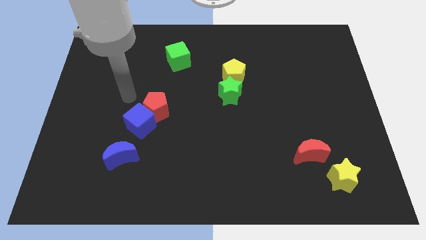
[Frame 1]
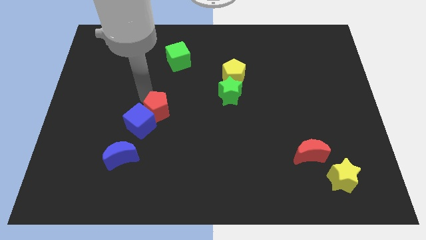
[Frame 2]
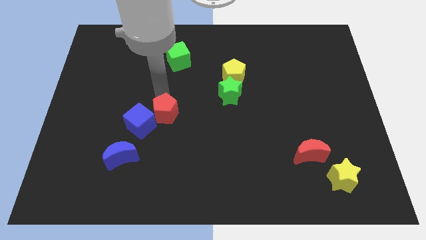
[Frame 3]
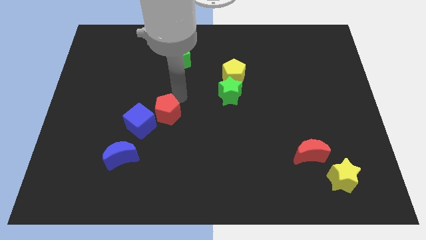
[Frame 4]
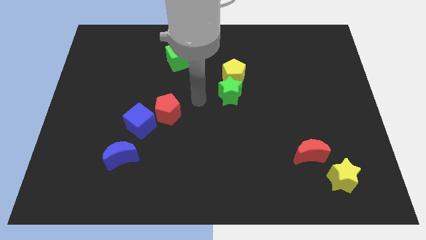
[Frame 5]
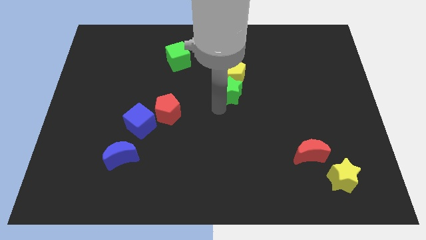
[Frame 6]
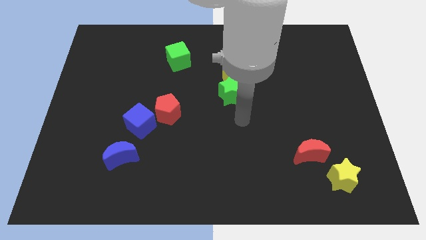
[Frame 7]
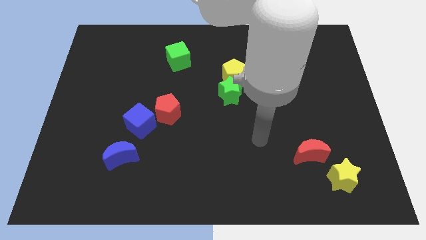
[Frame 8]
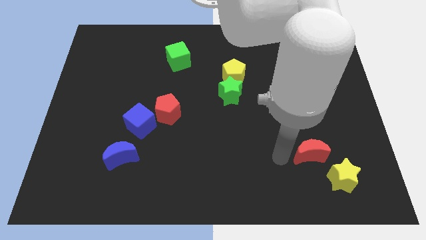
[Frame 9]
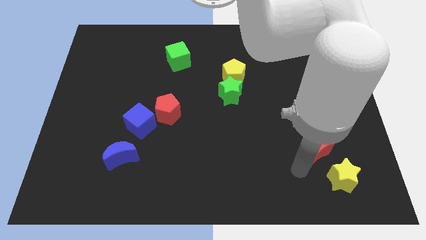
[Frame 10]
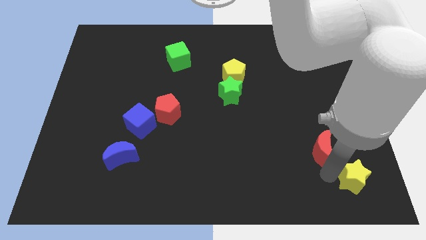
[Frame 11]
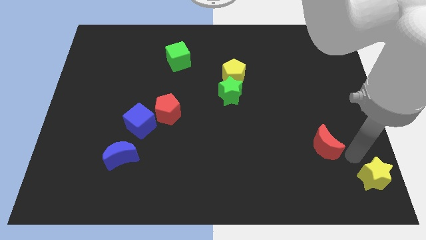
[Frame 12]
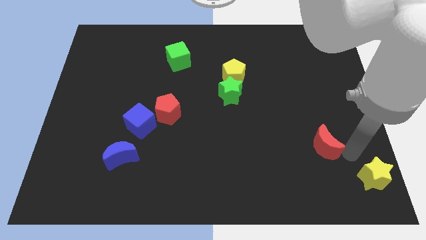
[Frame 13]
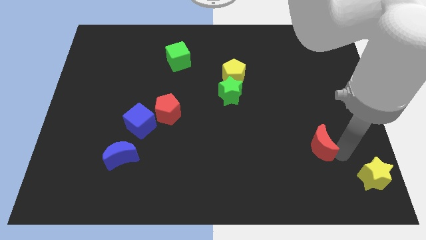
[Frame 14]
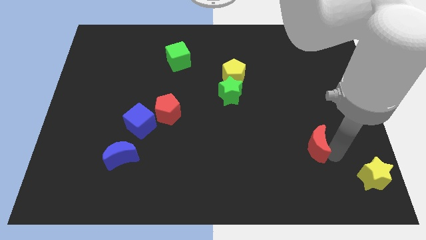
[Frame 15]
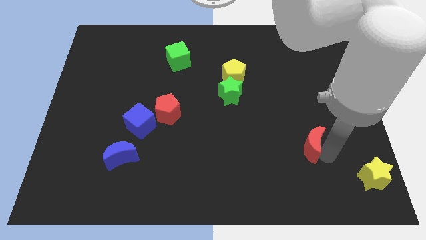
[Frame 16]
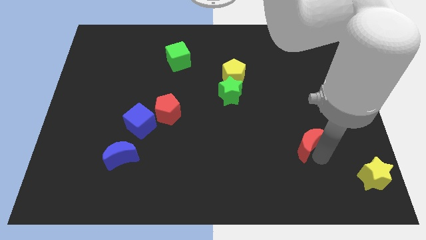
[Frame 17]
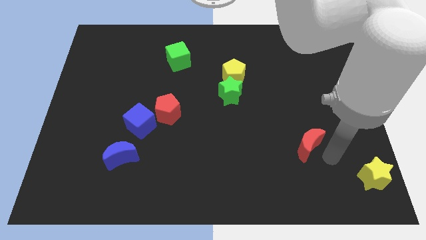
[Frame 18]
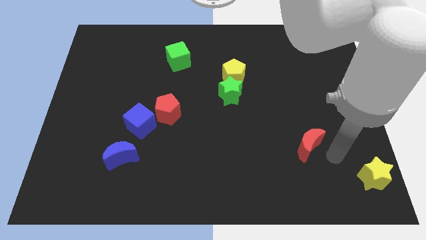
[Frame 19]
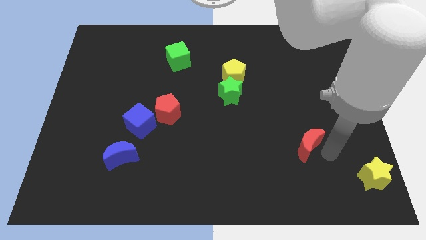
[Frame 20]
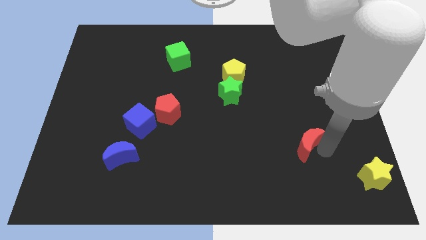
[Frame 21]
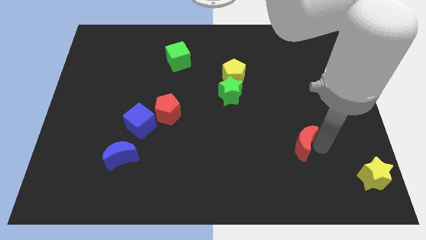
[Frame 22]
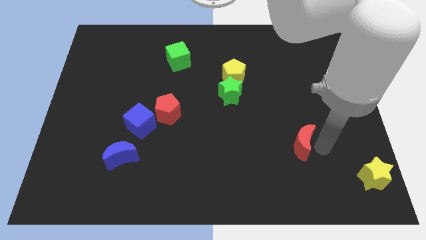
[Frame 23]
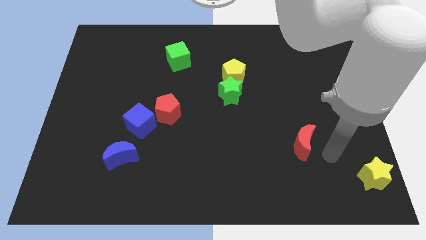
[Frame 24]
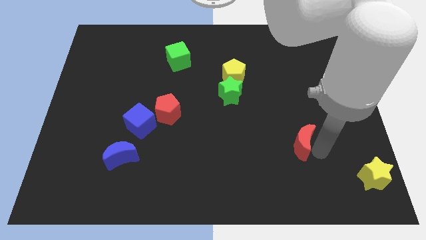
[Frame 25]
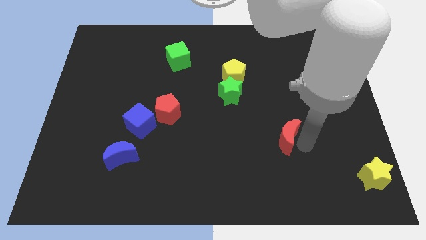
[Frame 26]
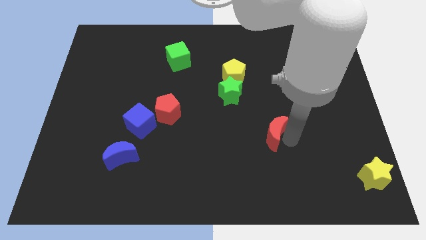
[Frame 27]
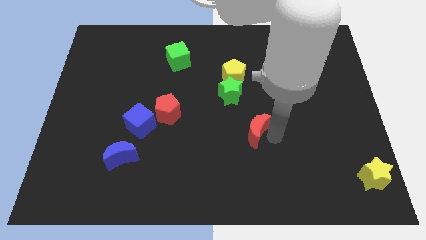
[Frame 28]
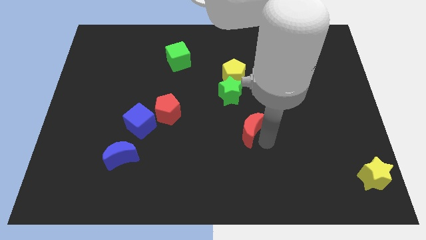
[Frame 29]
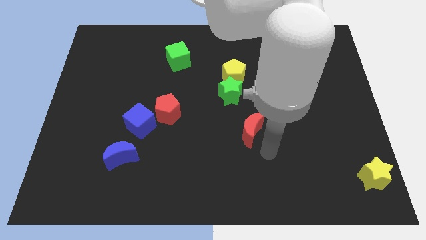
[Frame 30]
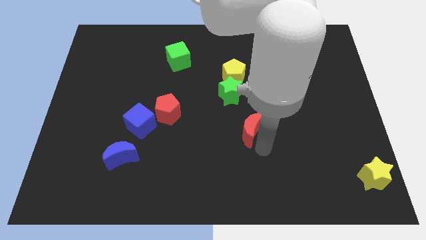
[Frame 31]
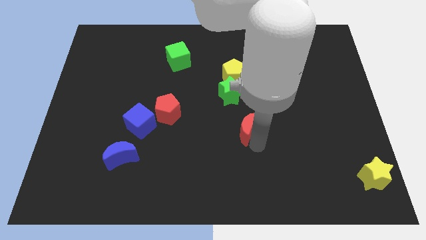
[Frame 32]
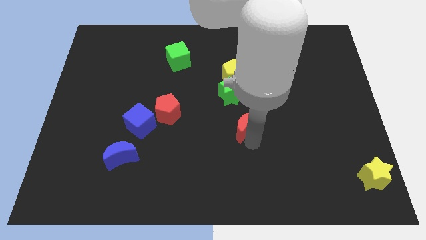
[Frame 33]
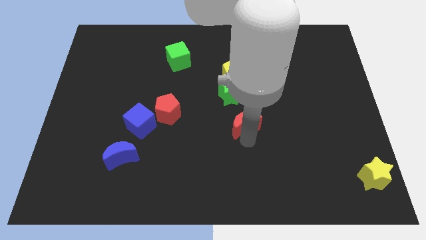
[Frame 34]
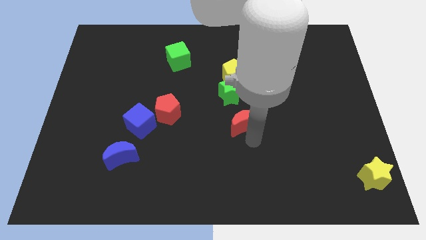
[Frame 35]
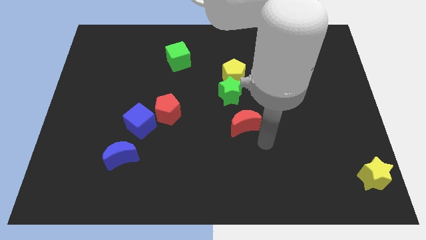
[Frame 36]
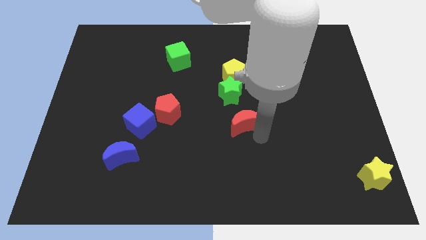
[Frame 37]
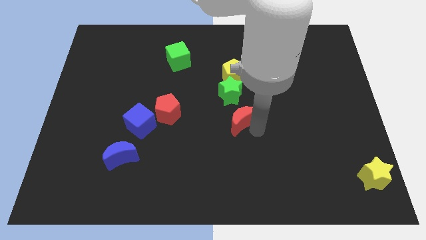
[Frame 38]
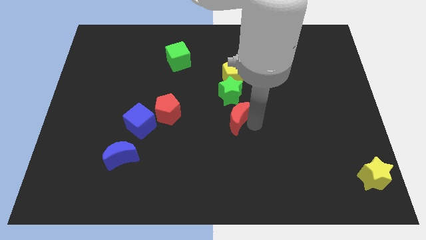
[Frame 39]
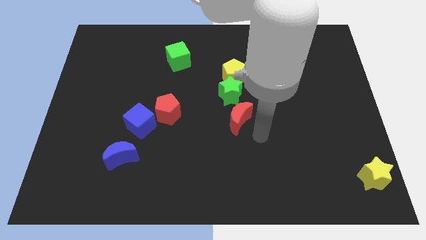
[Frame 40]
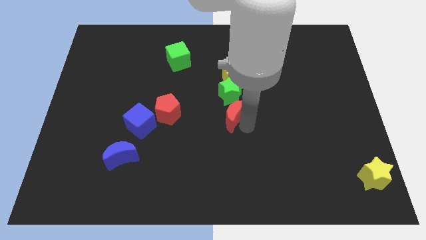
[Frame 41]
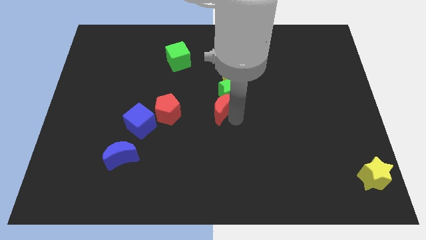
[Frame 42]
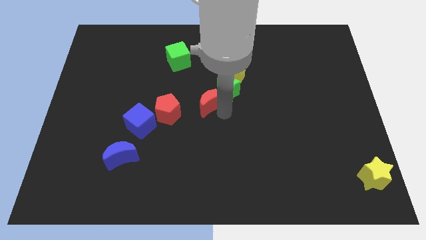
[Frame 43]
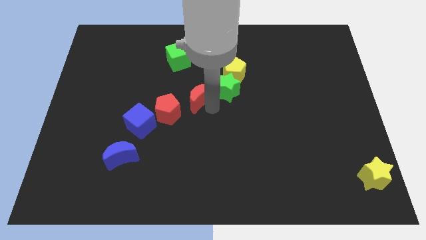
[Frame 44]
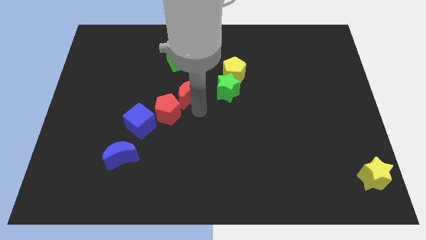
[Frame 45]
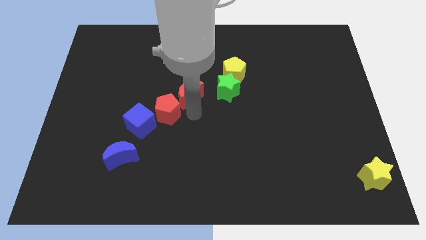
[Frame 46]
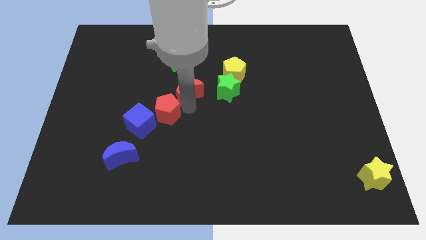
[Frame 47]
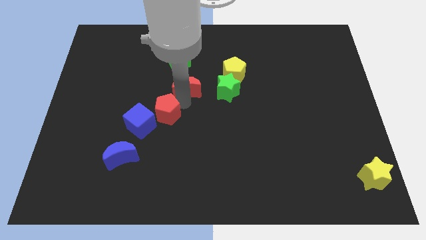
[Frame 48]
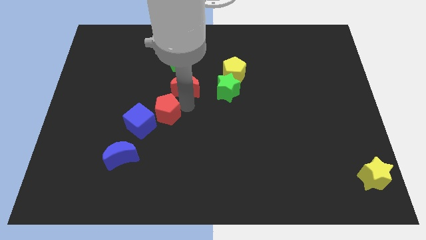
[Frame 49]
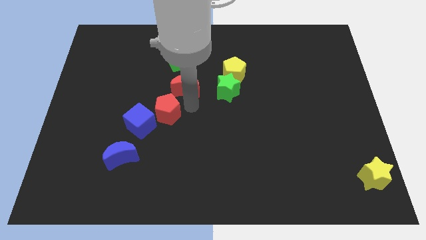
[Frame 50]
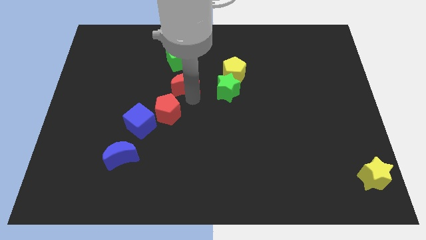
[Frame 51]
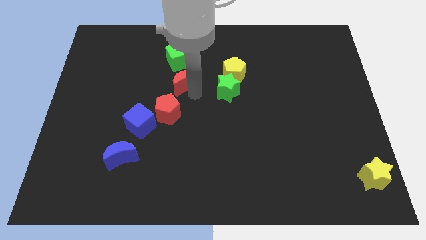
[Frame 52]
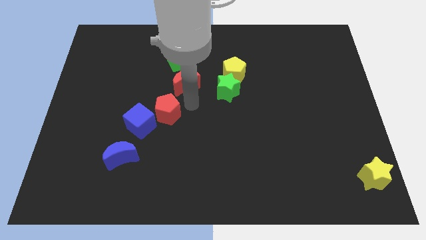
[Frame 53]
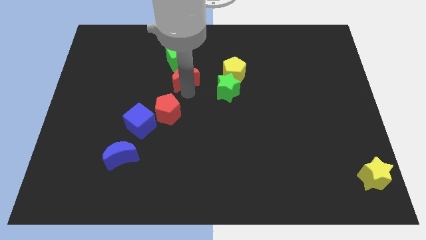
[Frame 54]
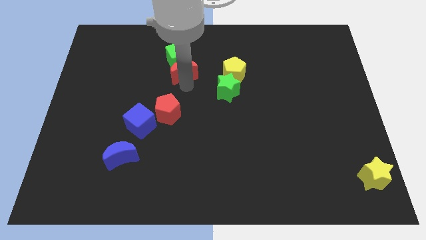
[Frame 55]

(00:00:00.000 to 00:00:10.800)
put the red moon next to the green cube
